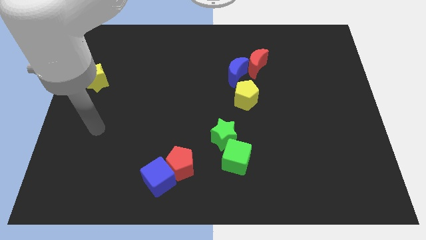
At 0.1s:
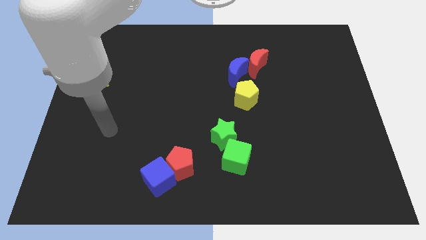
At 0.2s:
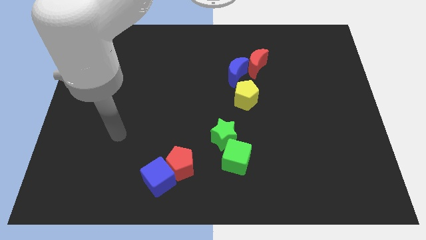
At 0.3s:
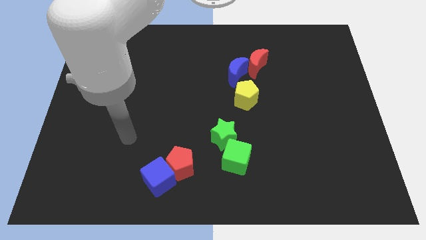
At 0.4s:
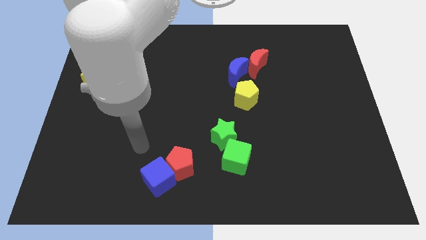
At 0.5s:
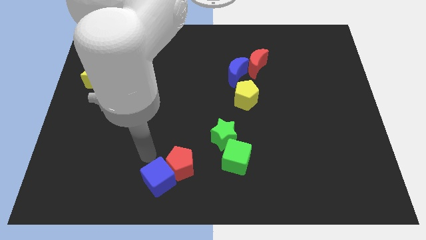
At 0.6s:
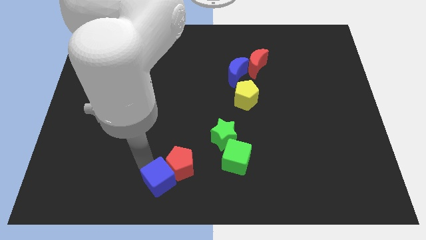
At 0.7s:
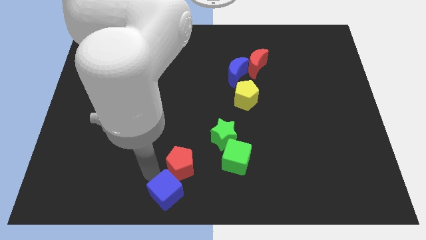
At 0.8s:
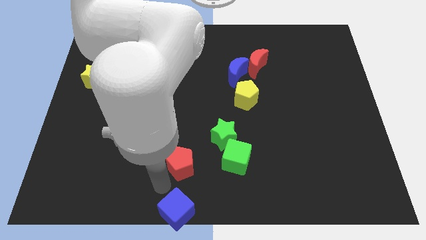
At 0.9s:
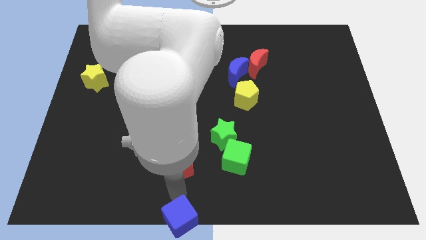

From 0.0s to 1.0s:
separate the red pentagon from the blue cube

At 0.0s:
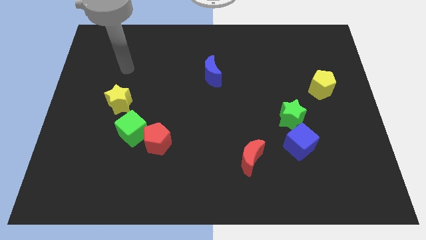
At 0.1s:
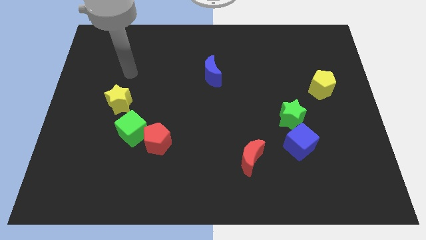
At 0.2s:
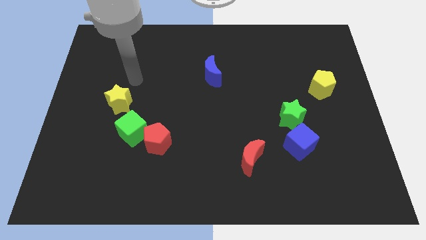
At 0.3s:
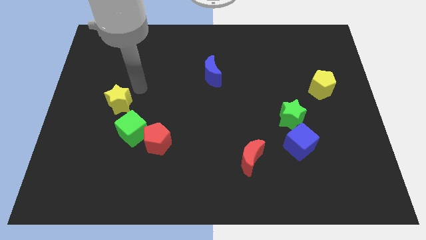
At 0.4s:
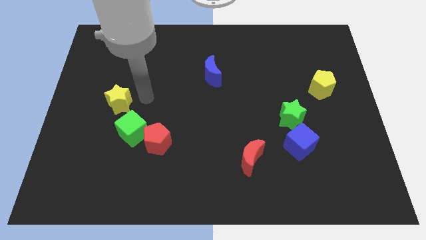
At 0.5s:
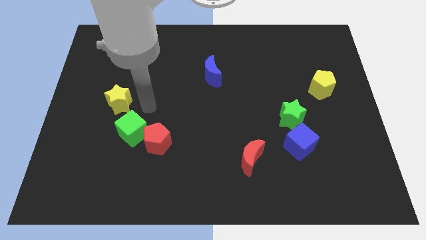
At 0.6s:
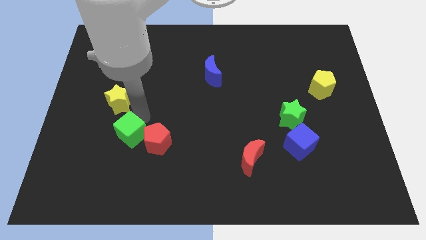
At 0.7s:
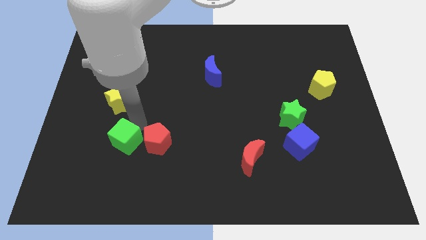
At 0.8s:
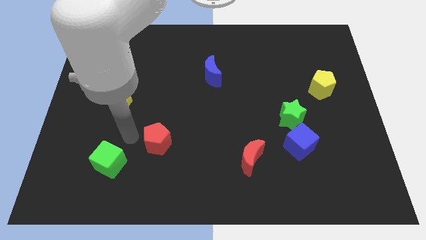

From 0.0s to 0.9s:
move the red pentagon away from the green cube

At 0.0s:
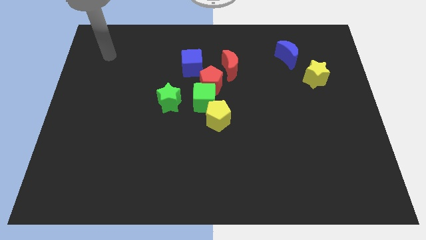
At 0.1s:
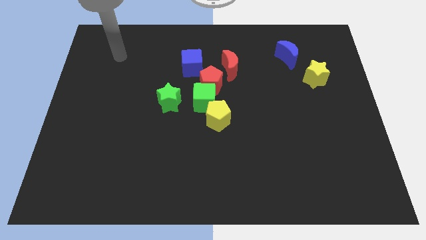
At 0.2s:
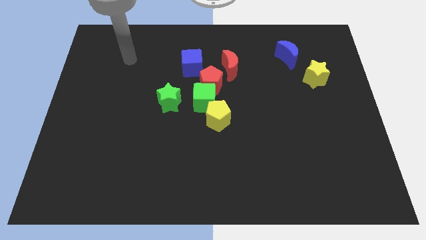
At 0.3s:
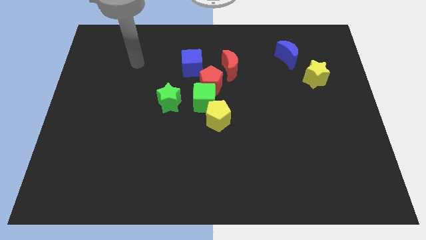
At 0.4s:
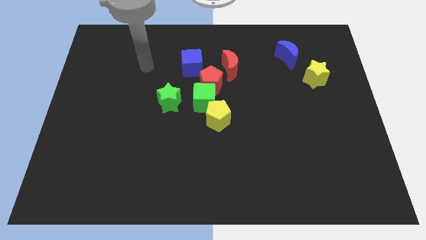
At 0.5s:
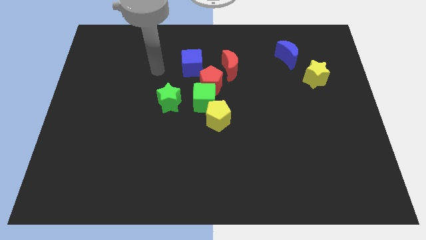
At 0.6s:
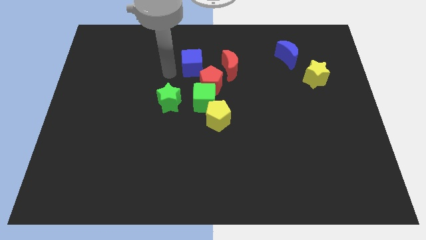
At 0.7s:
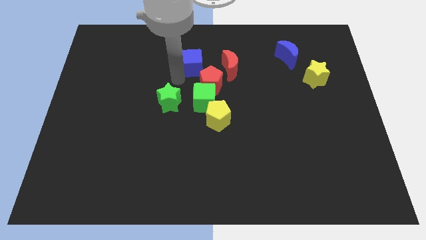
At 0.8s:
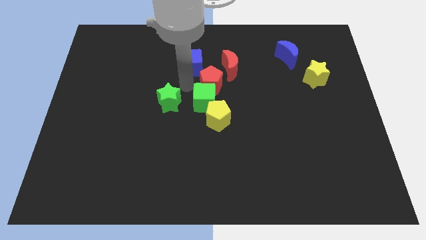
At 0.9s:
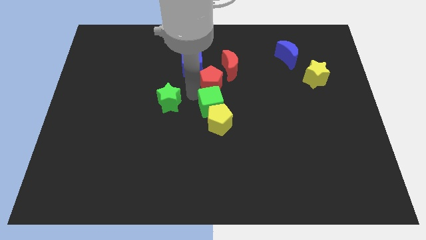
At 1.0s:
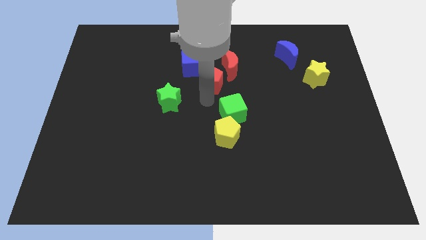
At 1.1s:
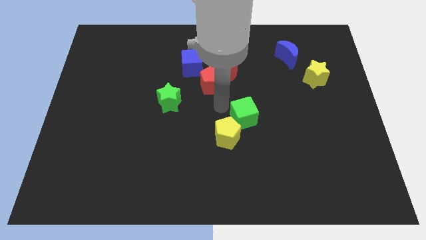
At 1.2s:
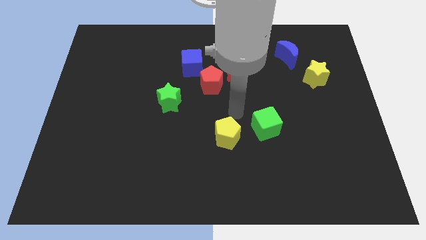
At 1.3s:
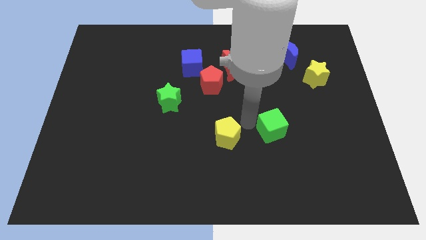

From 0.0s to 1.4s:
pull the yellow pentagon apart from the green cube

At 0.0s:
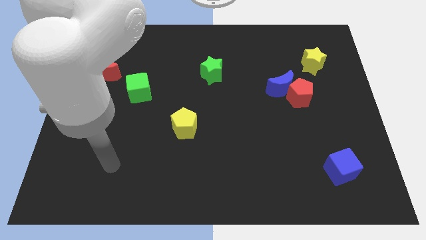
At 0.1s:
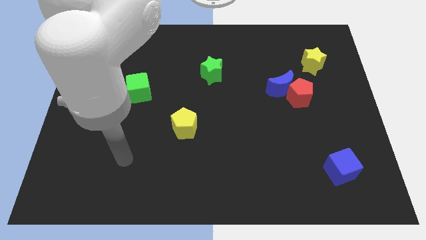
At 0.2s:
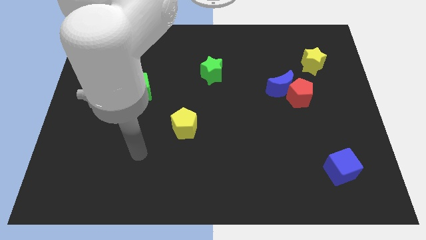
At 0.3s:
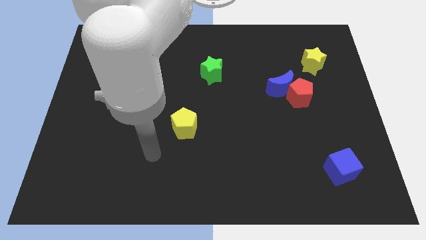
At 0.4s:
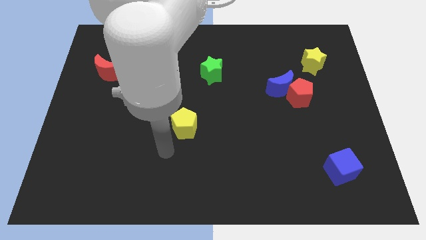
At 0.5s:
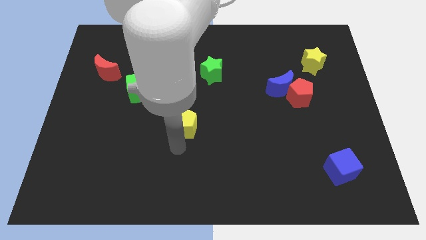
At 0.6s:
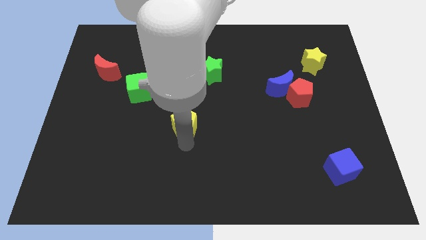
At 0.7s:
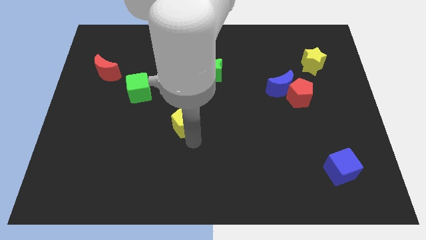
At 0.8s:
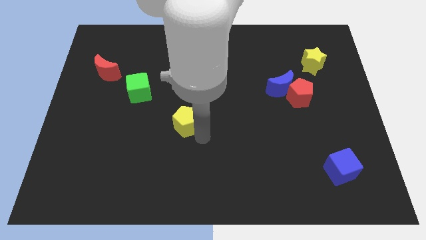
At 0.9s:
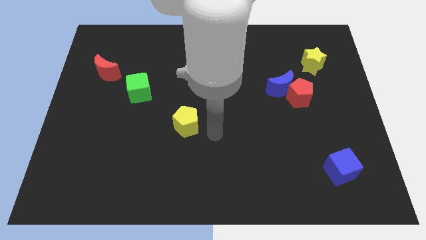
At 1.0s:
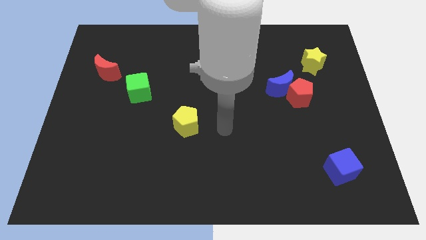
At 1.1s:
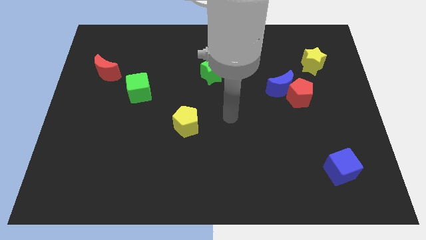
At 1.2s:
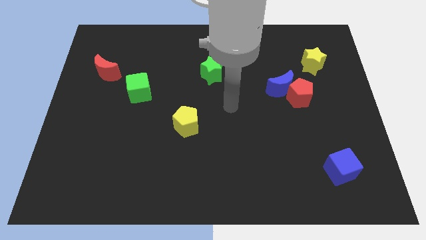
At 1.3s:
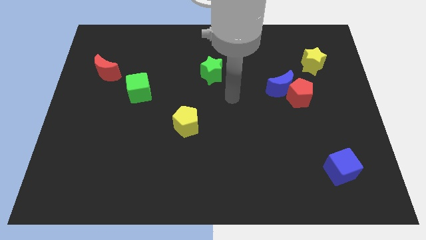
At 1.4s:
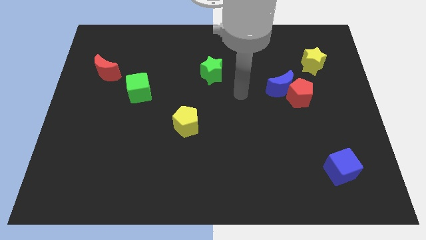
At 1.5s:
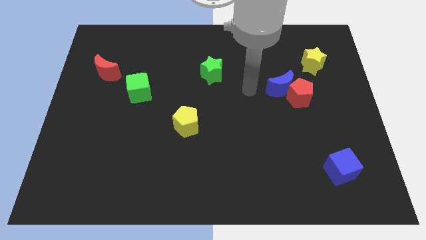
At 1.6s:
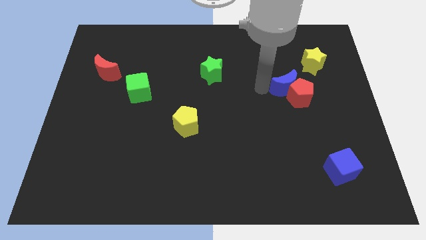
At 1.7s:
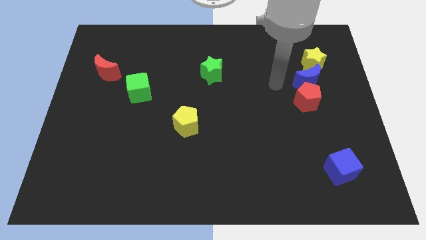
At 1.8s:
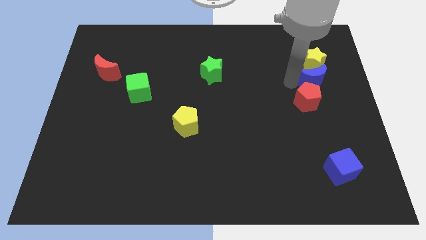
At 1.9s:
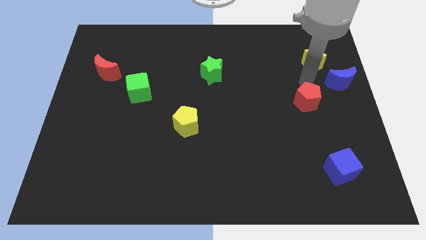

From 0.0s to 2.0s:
move the red pentagon away from the blue moon

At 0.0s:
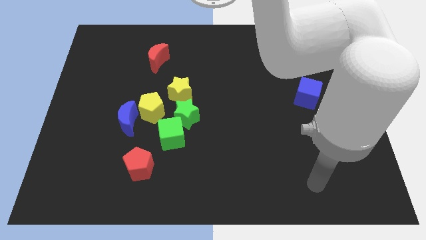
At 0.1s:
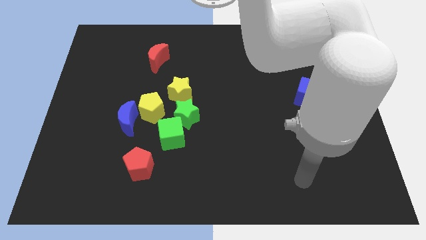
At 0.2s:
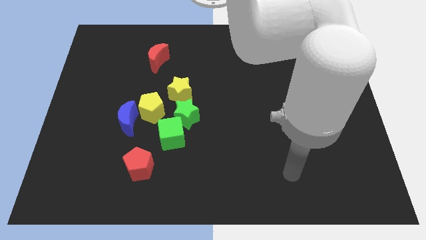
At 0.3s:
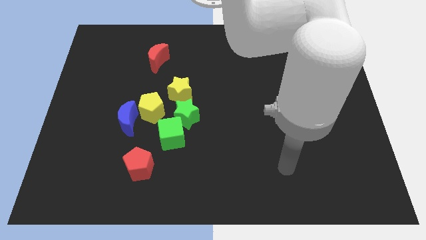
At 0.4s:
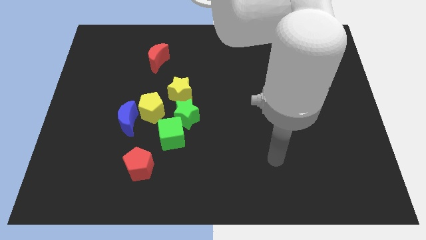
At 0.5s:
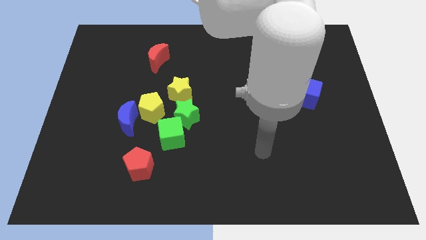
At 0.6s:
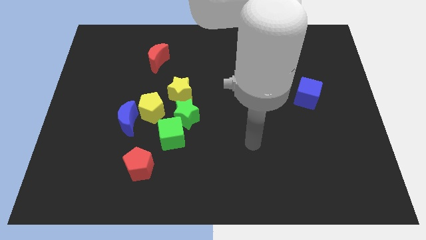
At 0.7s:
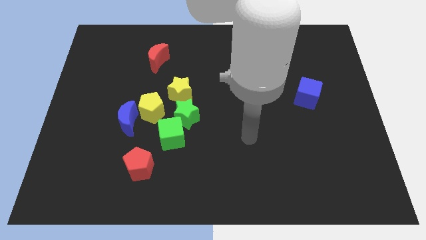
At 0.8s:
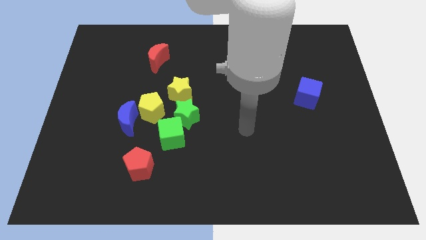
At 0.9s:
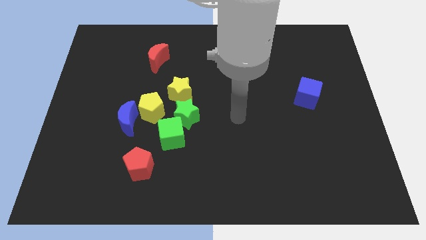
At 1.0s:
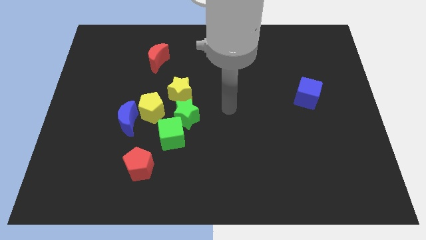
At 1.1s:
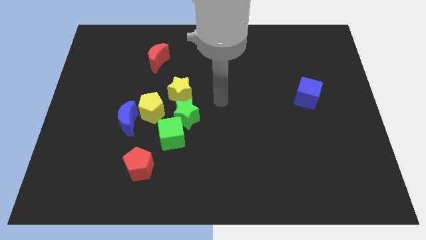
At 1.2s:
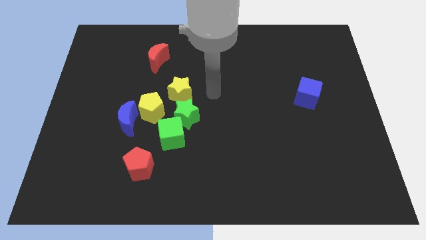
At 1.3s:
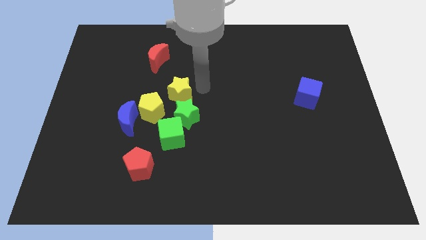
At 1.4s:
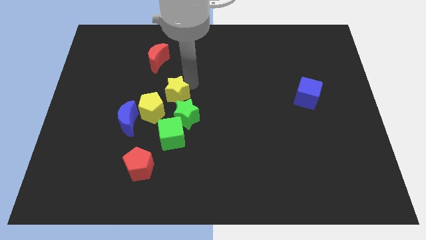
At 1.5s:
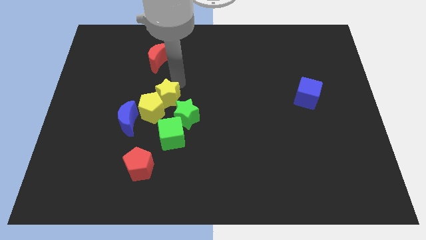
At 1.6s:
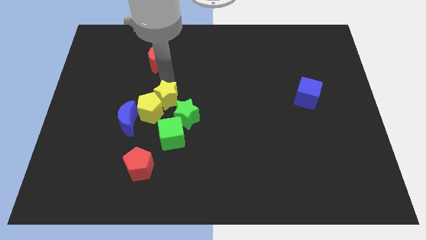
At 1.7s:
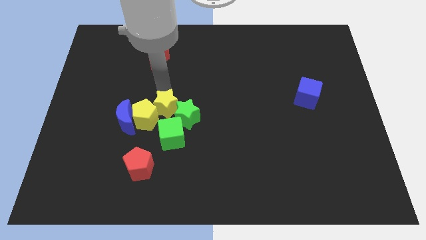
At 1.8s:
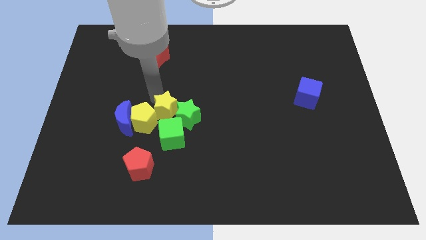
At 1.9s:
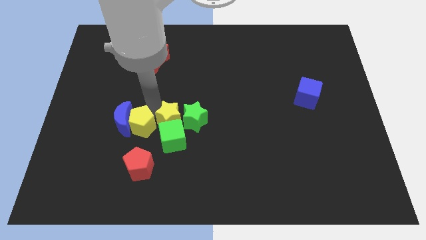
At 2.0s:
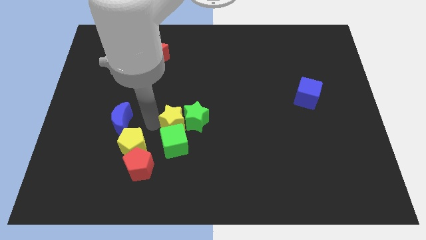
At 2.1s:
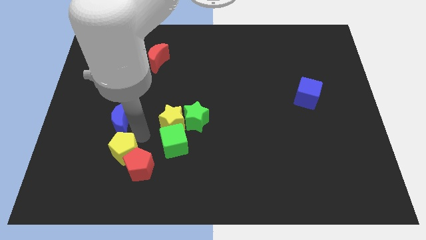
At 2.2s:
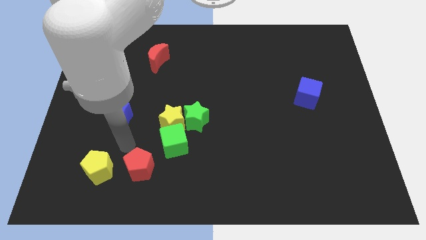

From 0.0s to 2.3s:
pull the blue moon apart from the yellow pentagon

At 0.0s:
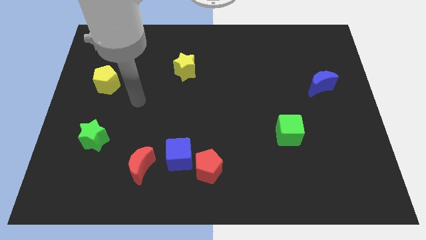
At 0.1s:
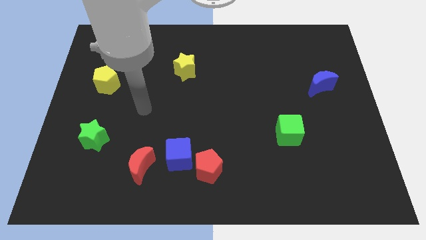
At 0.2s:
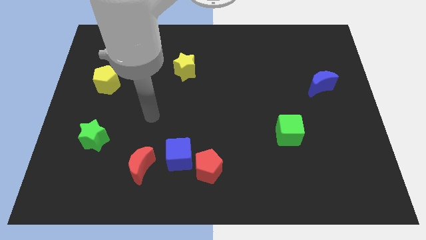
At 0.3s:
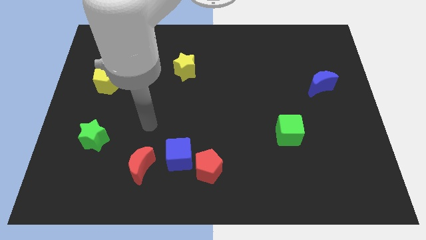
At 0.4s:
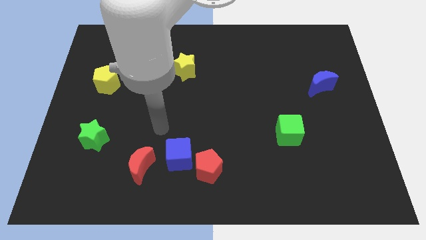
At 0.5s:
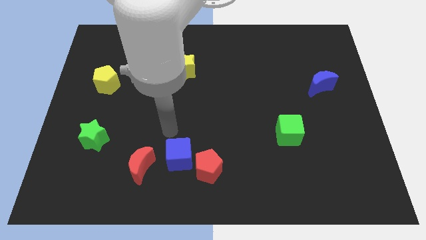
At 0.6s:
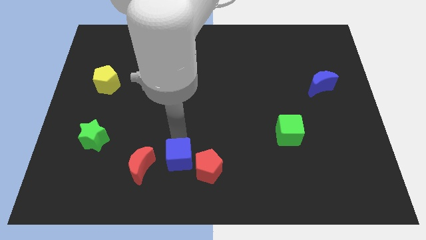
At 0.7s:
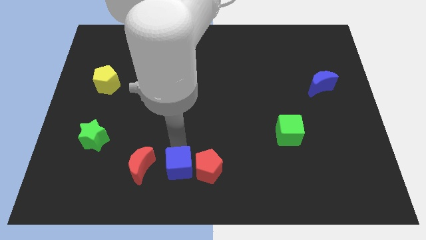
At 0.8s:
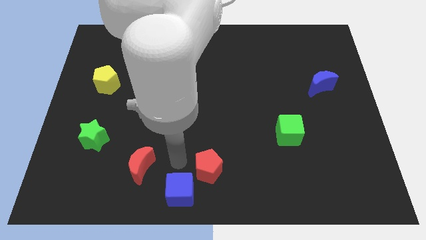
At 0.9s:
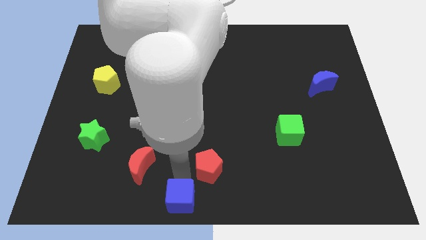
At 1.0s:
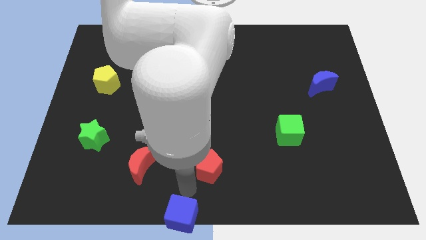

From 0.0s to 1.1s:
move the red pentagon away from the blue cube

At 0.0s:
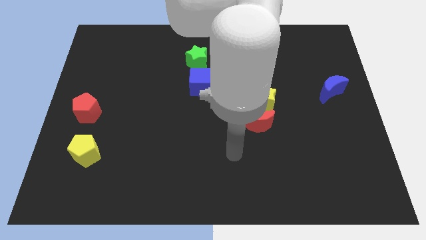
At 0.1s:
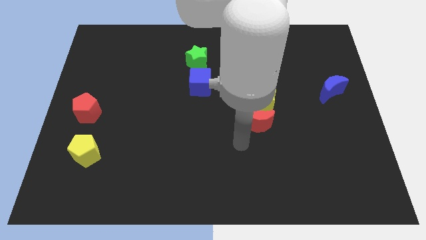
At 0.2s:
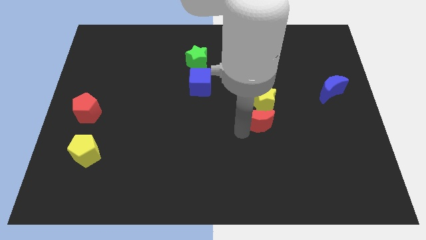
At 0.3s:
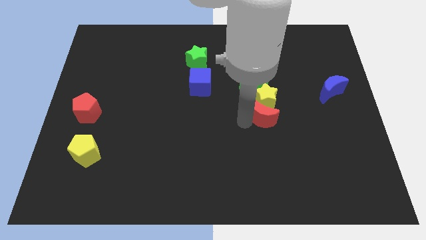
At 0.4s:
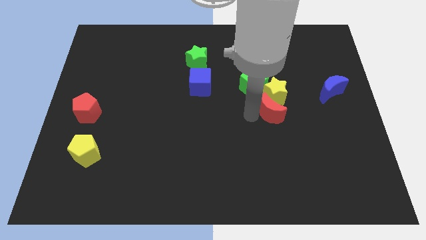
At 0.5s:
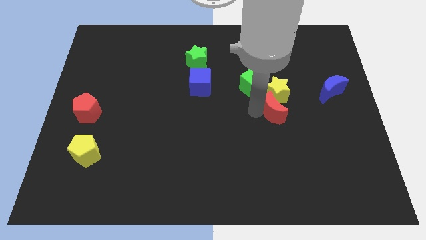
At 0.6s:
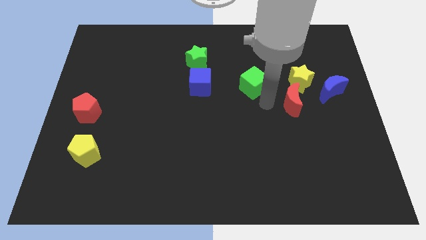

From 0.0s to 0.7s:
pull the green cube apart from the yellow star
